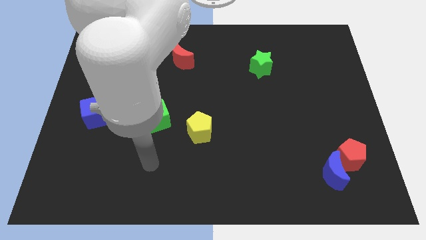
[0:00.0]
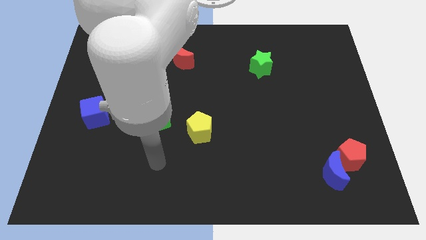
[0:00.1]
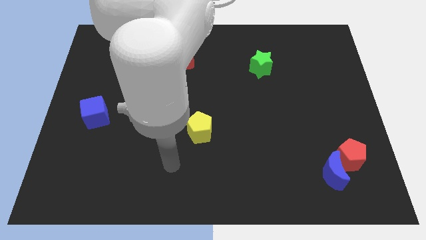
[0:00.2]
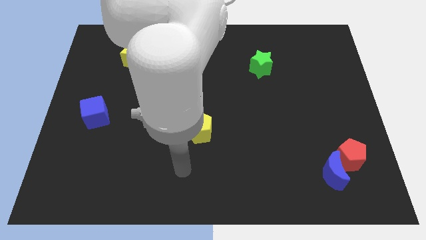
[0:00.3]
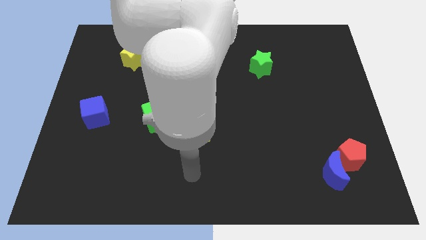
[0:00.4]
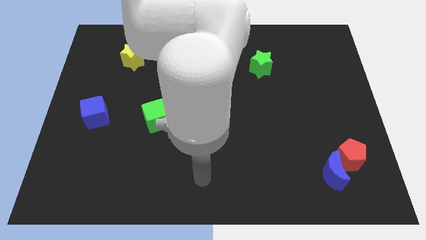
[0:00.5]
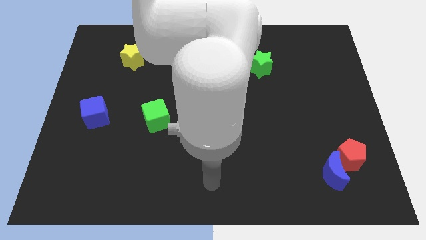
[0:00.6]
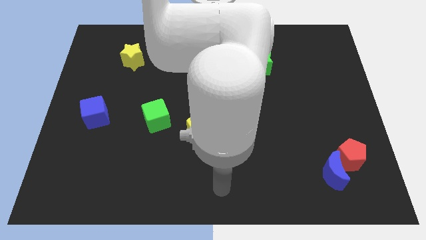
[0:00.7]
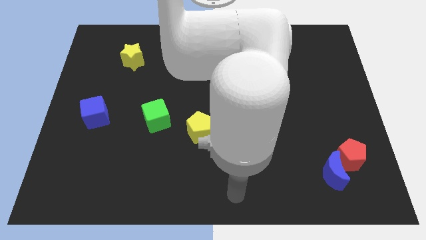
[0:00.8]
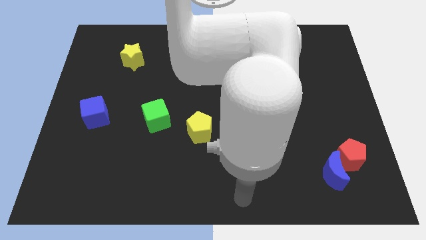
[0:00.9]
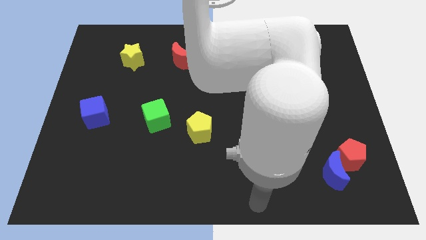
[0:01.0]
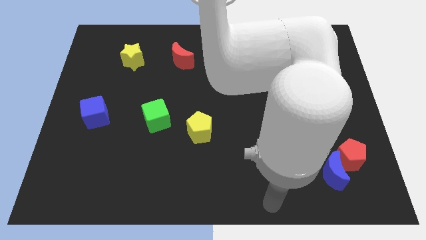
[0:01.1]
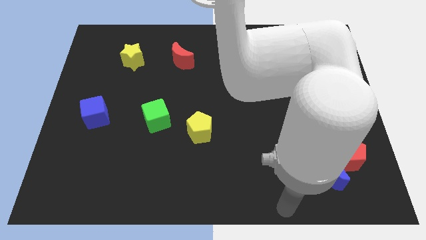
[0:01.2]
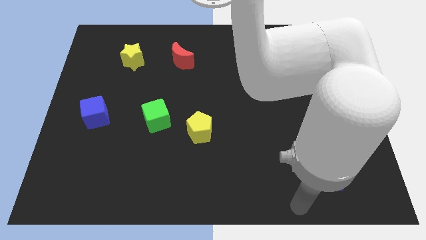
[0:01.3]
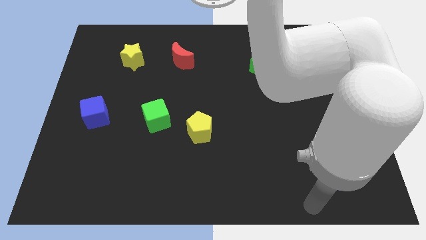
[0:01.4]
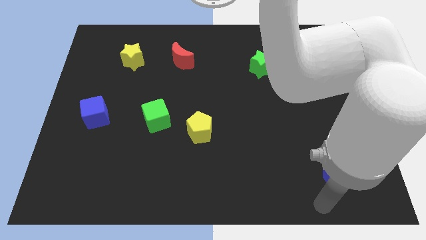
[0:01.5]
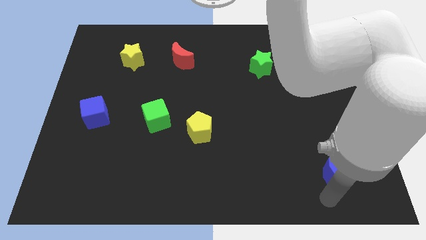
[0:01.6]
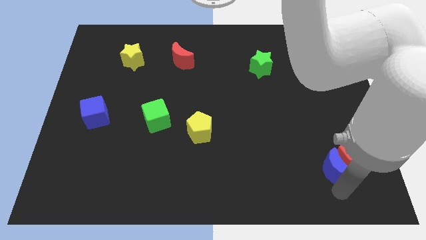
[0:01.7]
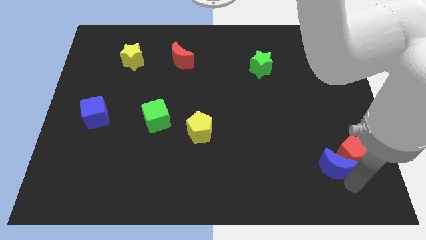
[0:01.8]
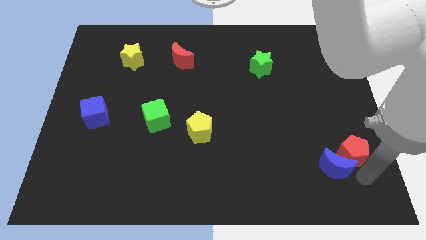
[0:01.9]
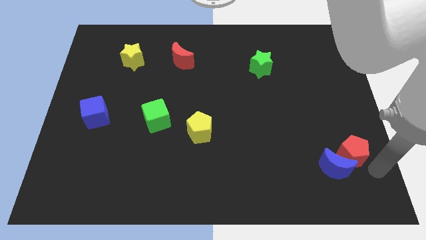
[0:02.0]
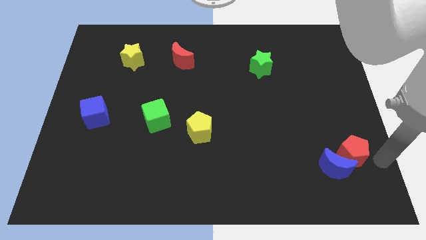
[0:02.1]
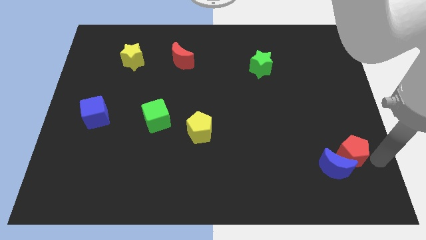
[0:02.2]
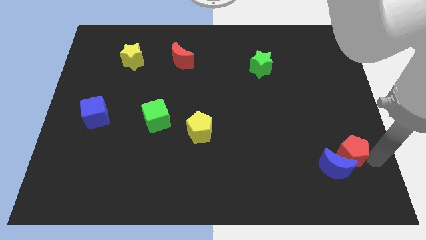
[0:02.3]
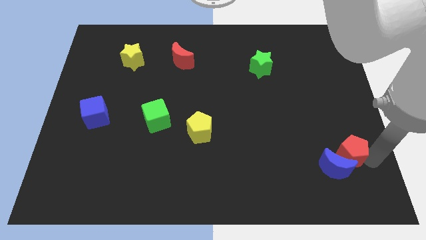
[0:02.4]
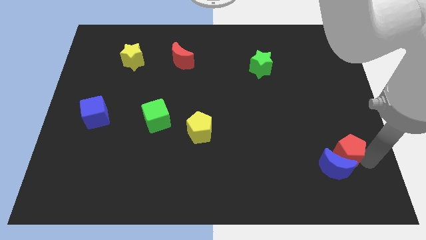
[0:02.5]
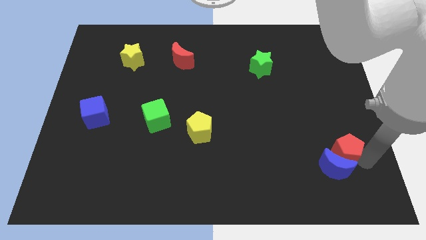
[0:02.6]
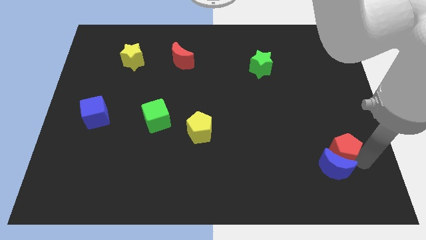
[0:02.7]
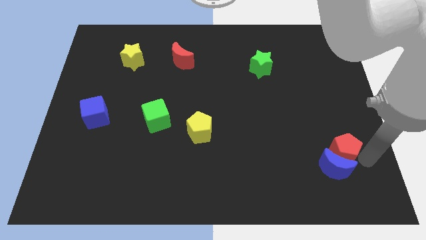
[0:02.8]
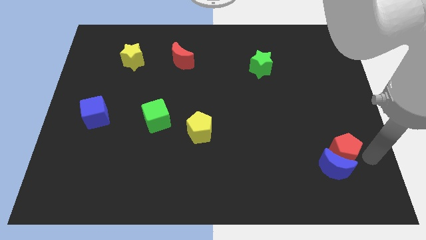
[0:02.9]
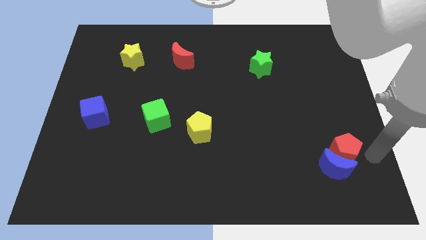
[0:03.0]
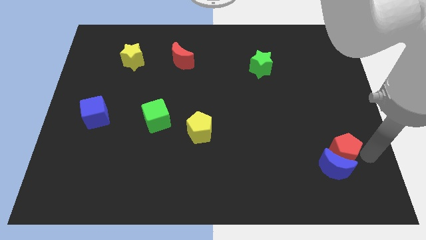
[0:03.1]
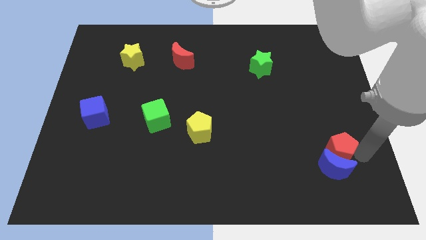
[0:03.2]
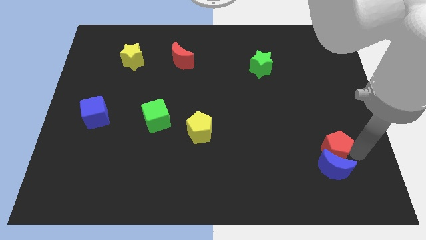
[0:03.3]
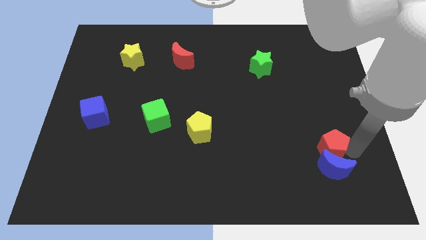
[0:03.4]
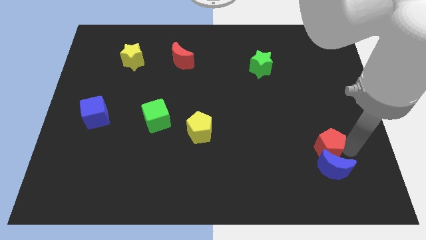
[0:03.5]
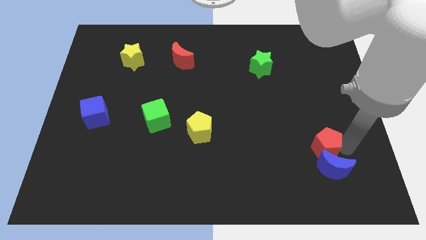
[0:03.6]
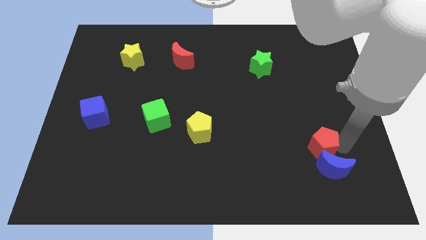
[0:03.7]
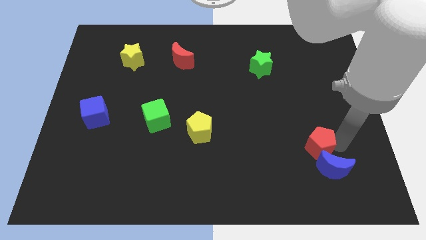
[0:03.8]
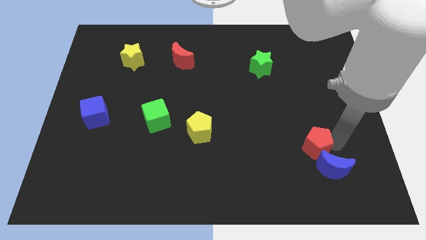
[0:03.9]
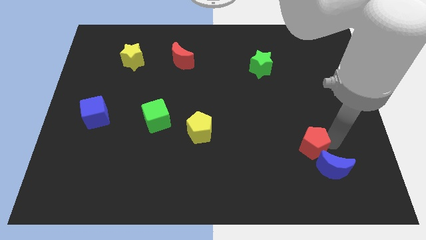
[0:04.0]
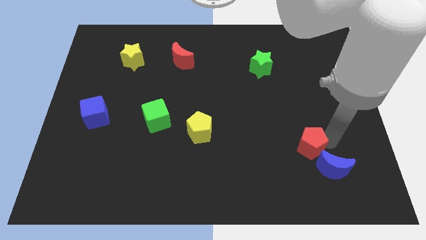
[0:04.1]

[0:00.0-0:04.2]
slide the red pentagon somewhat to the left

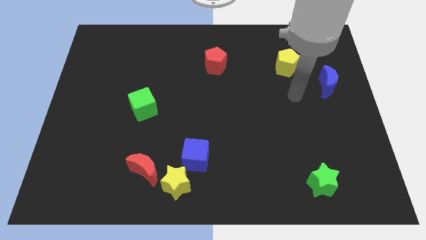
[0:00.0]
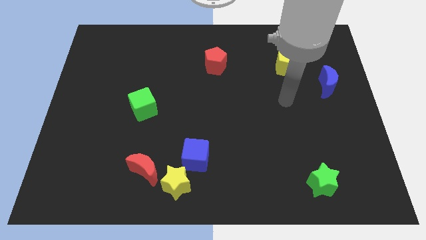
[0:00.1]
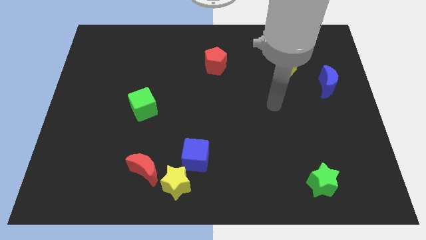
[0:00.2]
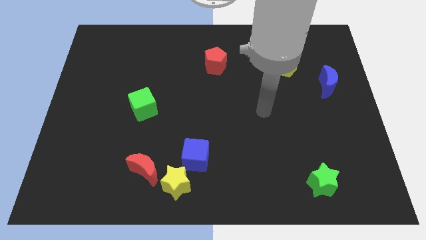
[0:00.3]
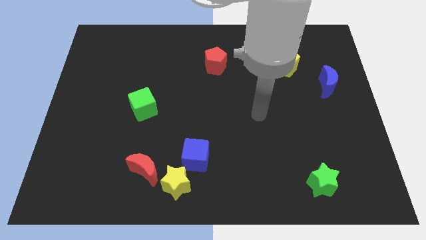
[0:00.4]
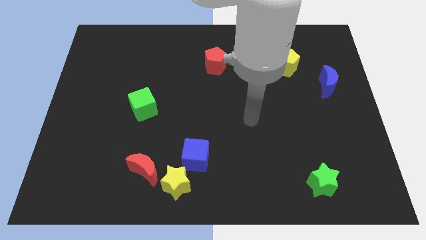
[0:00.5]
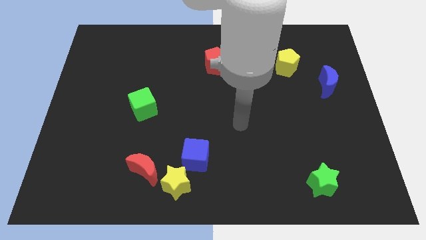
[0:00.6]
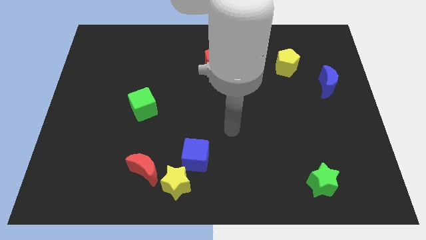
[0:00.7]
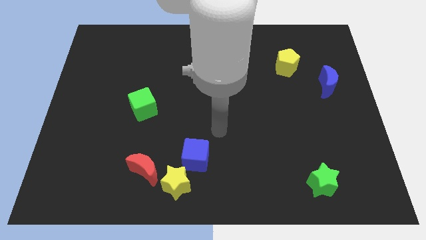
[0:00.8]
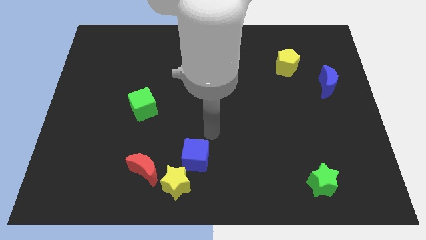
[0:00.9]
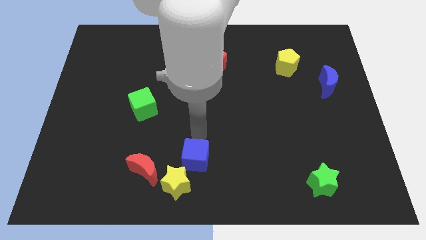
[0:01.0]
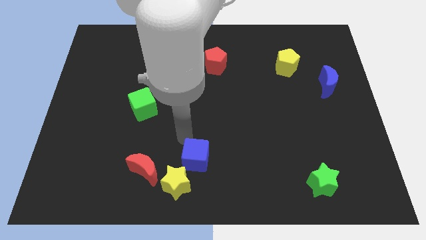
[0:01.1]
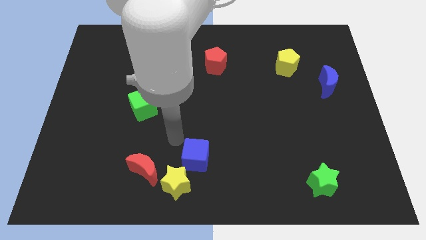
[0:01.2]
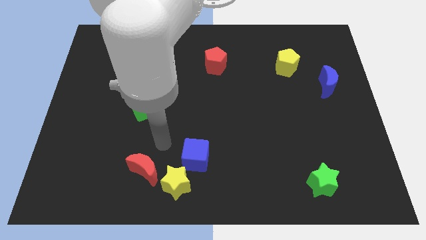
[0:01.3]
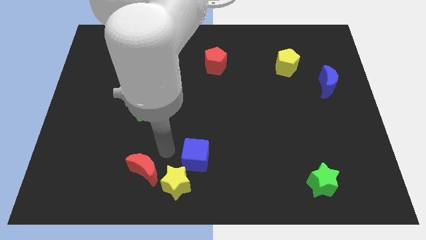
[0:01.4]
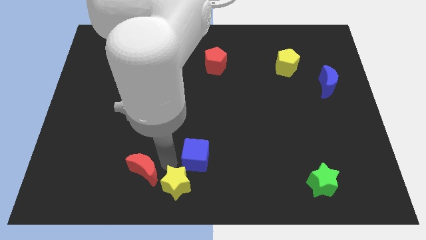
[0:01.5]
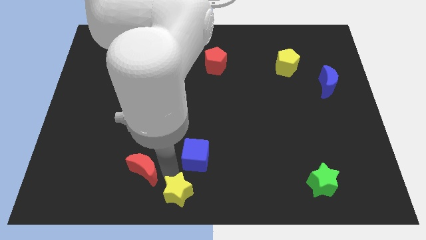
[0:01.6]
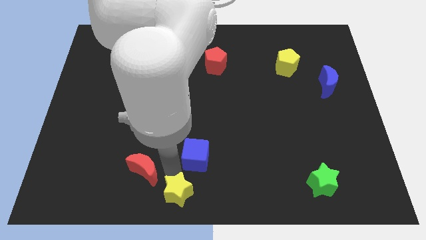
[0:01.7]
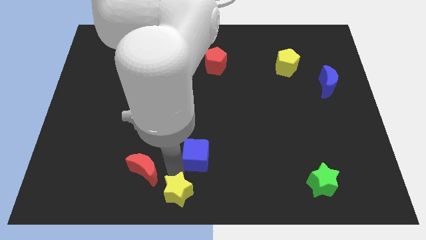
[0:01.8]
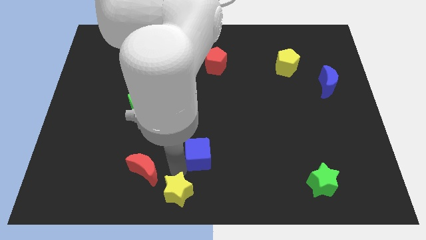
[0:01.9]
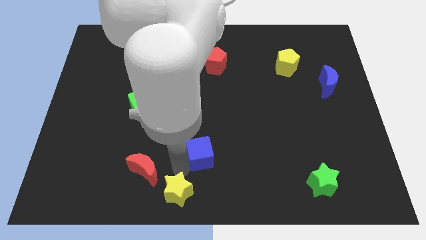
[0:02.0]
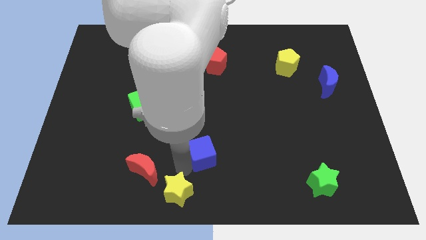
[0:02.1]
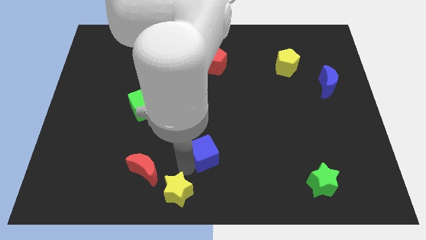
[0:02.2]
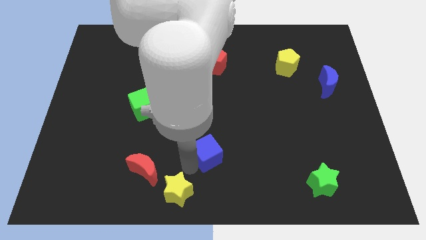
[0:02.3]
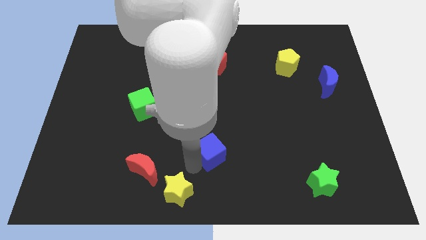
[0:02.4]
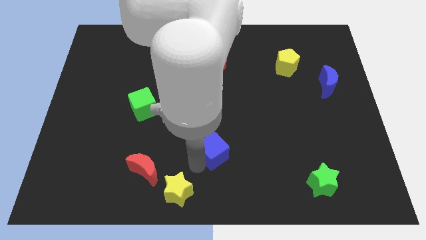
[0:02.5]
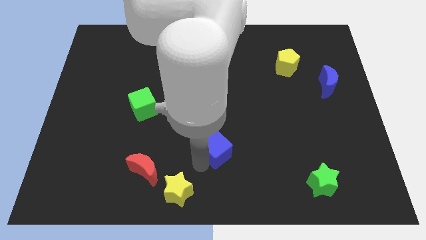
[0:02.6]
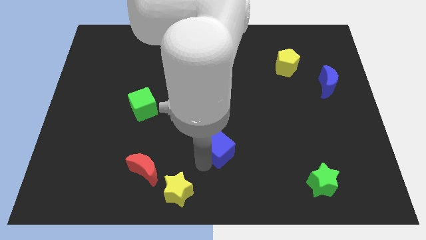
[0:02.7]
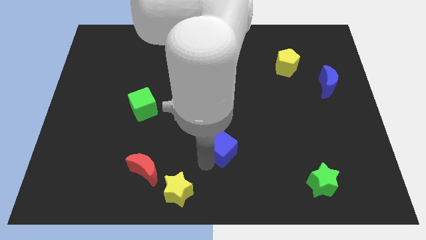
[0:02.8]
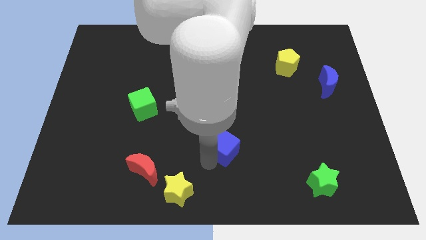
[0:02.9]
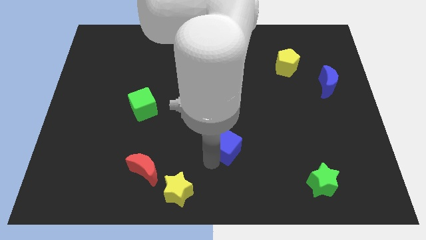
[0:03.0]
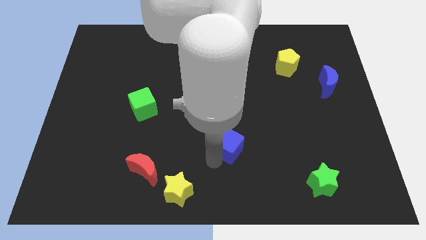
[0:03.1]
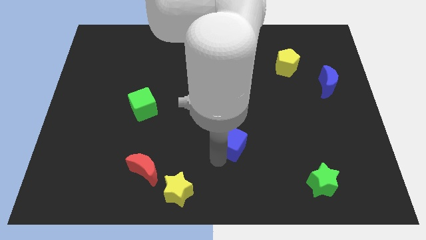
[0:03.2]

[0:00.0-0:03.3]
move the blue cube slightly upwards and then right

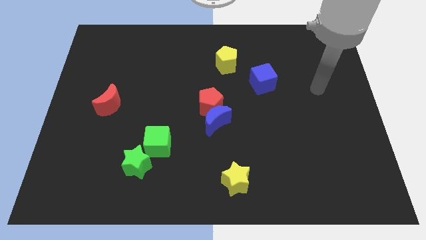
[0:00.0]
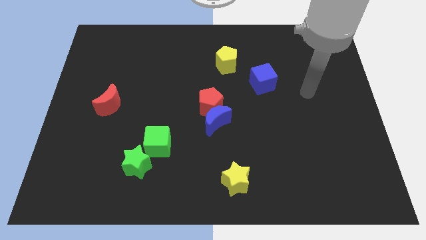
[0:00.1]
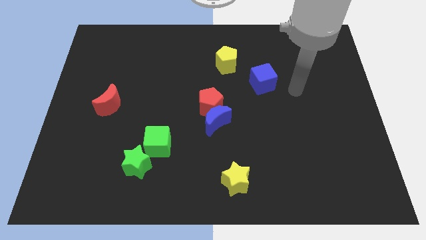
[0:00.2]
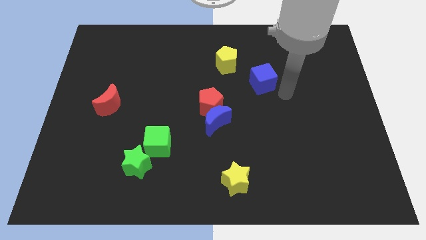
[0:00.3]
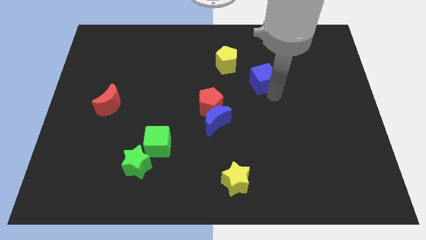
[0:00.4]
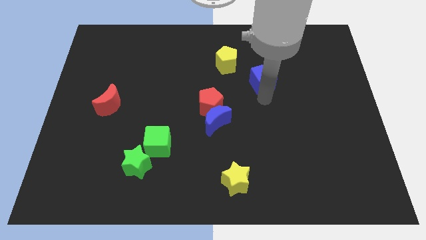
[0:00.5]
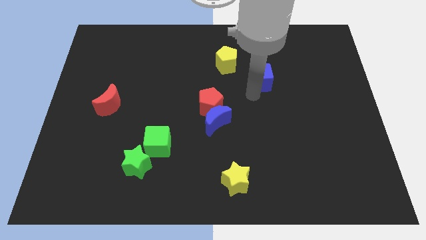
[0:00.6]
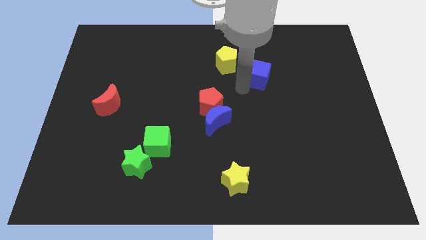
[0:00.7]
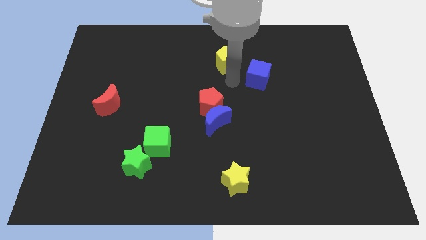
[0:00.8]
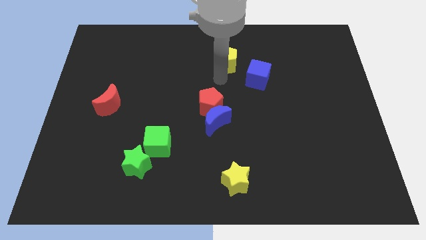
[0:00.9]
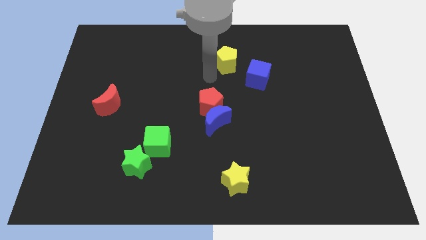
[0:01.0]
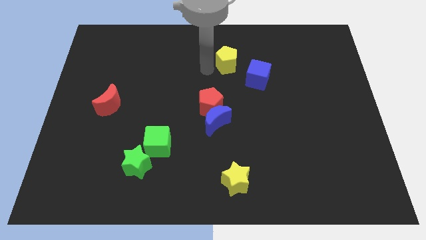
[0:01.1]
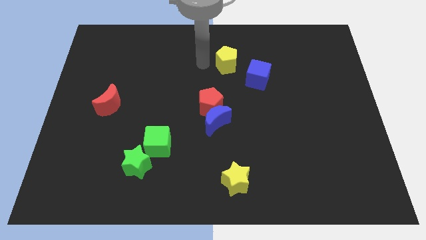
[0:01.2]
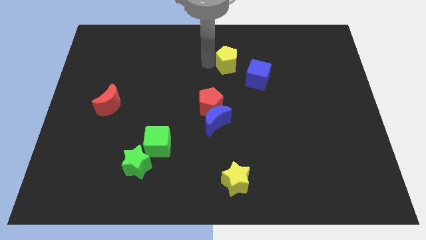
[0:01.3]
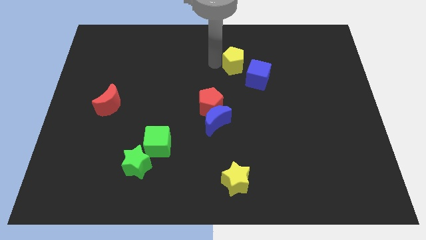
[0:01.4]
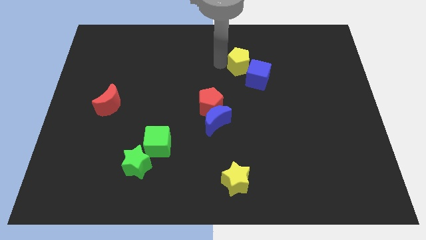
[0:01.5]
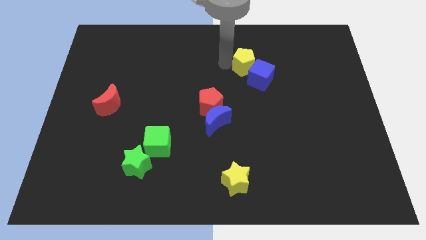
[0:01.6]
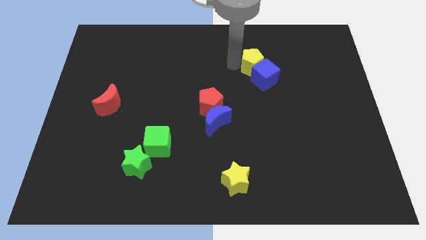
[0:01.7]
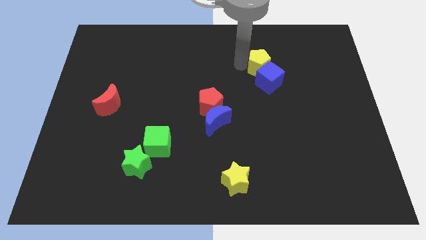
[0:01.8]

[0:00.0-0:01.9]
slightly push the yellow pentagon right
